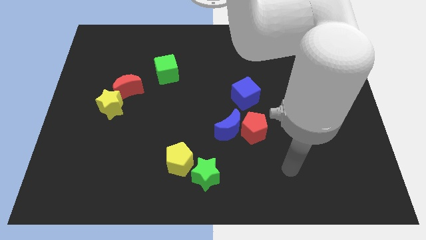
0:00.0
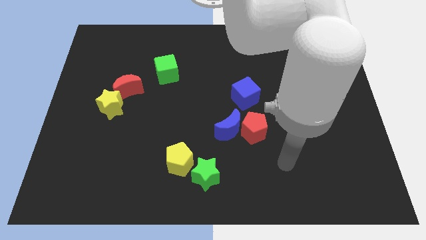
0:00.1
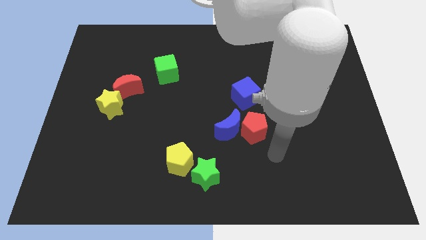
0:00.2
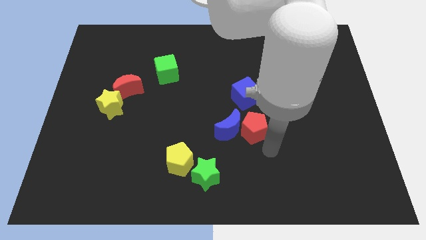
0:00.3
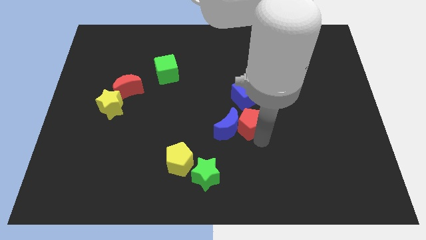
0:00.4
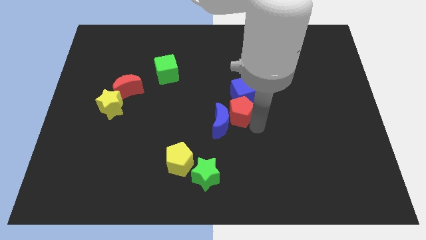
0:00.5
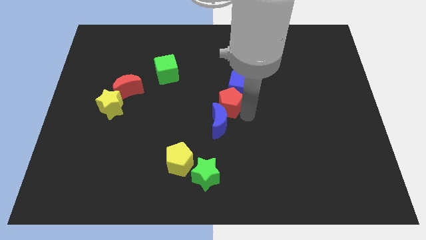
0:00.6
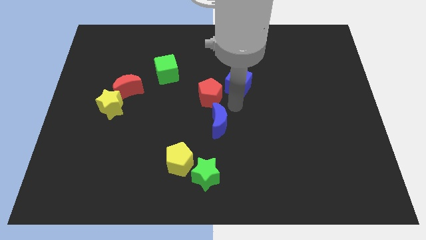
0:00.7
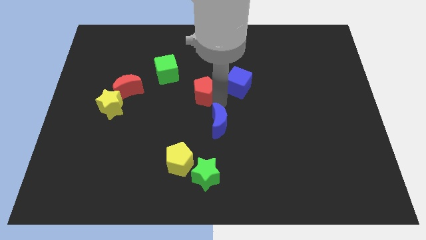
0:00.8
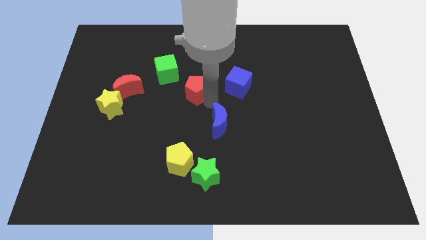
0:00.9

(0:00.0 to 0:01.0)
separate the blue moon from the red pentagon

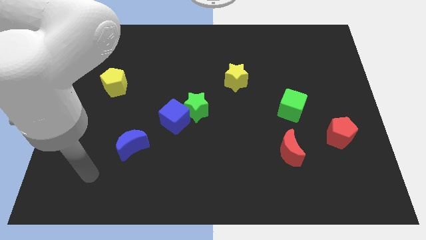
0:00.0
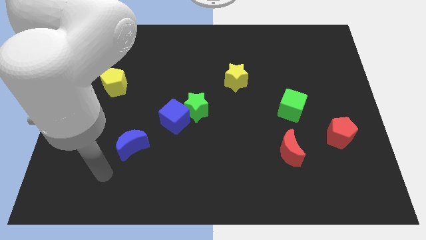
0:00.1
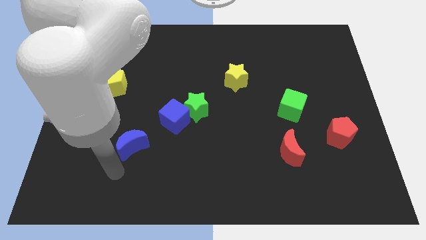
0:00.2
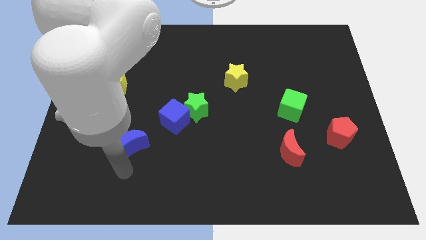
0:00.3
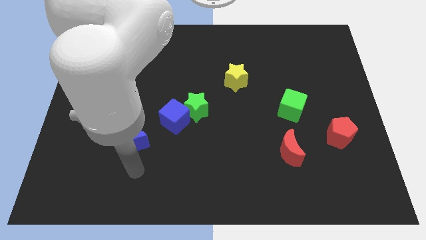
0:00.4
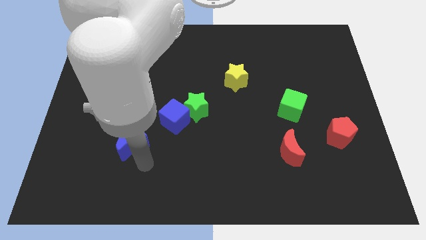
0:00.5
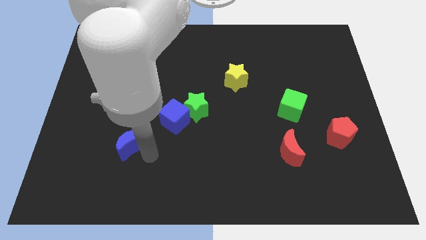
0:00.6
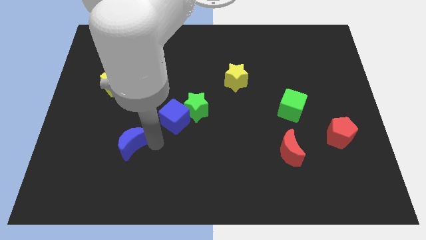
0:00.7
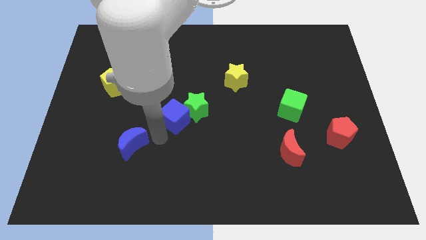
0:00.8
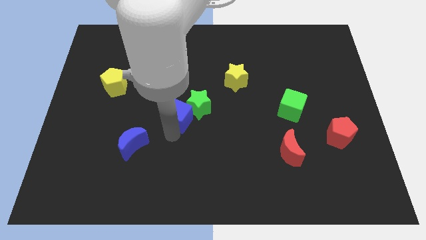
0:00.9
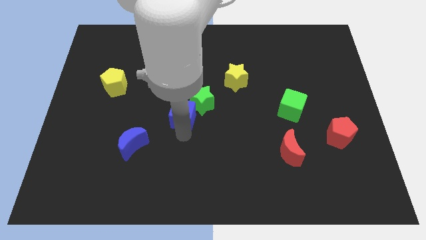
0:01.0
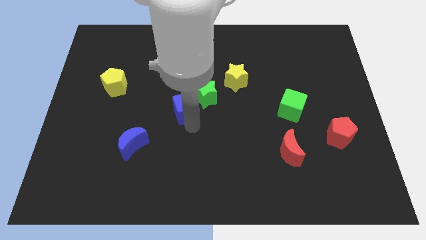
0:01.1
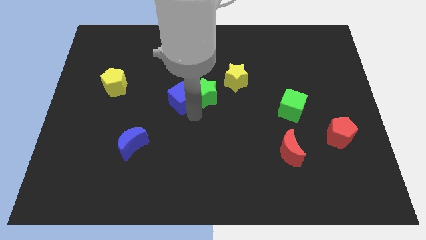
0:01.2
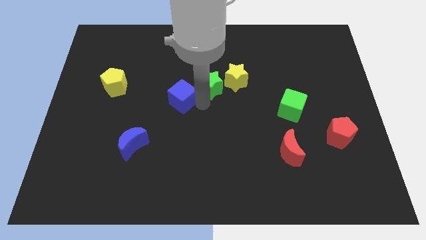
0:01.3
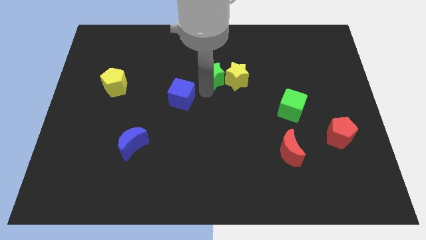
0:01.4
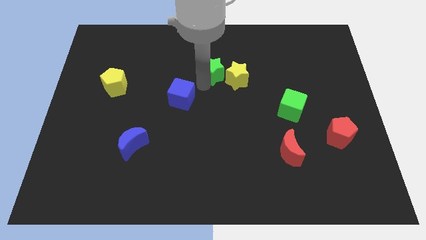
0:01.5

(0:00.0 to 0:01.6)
pull the blue cube apart from the green star

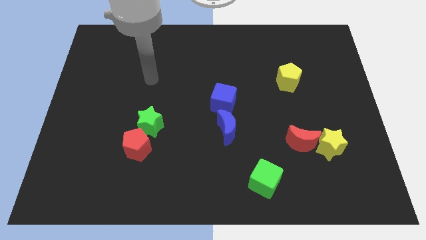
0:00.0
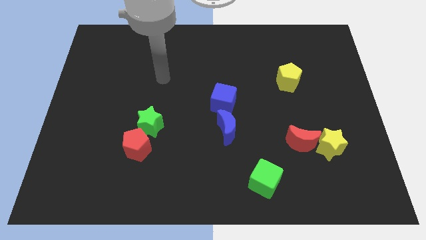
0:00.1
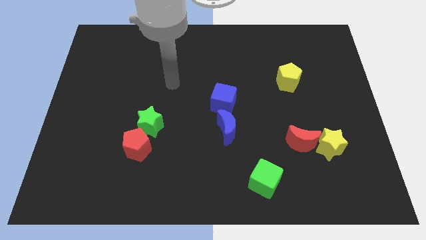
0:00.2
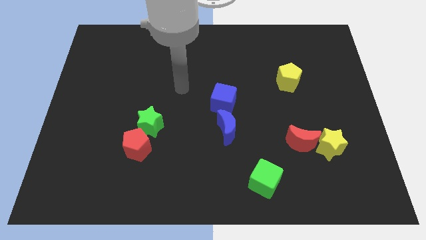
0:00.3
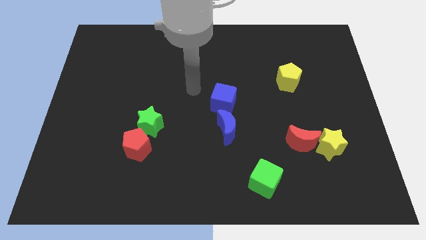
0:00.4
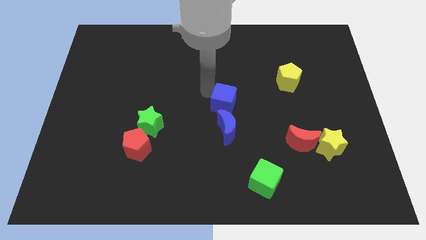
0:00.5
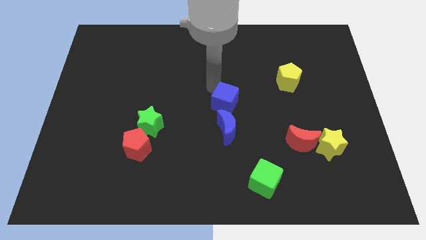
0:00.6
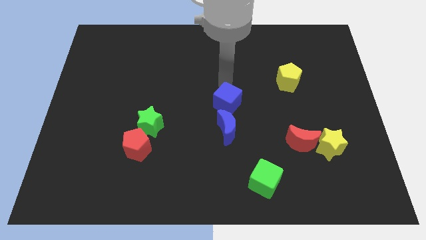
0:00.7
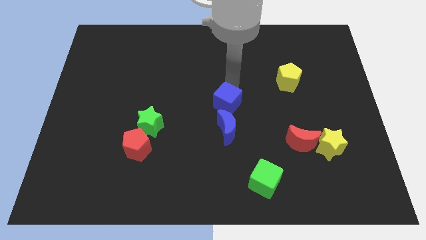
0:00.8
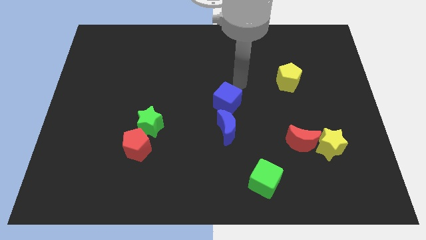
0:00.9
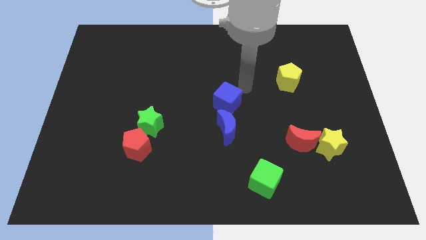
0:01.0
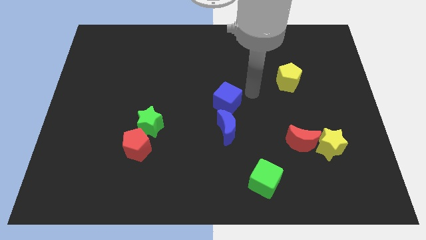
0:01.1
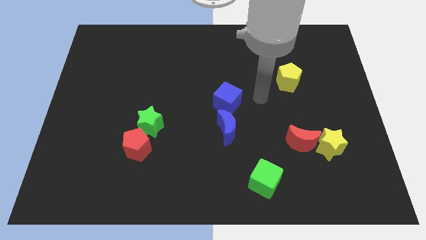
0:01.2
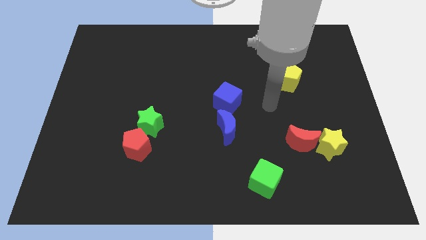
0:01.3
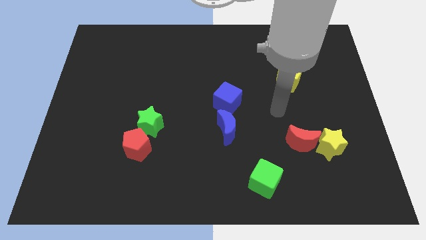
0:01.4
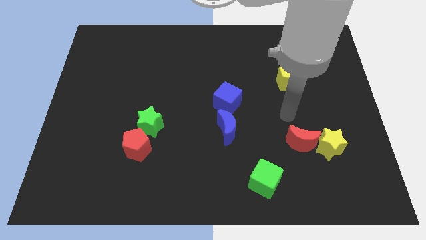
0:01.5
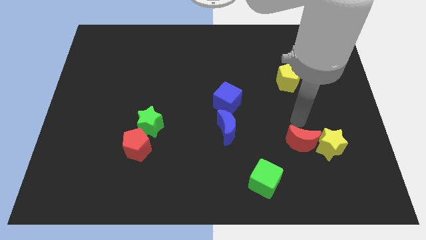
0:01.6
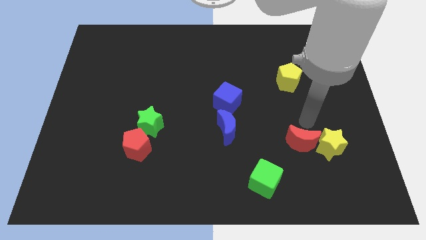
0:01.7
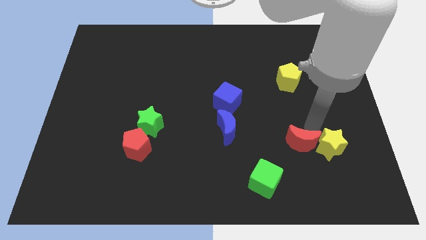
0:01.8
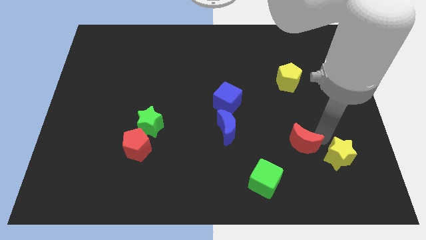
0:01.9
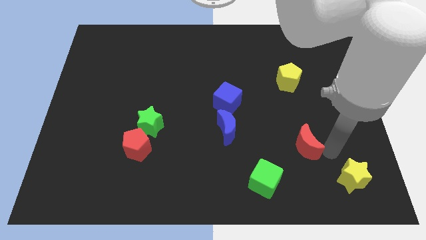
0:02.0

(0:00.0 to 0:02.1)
pull the red moon apart from the yellow star

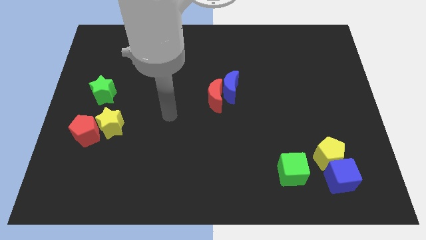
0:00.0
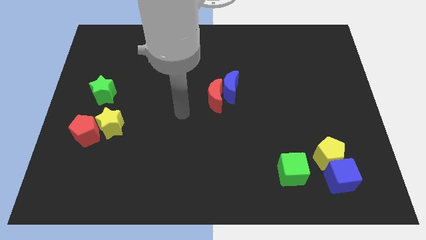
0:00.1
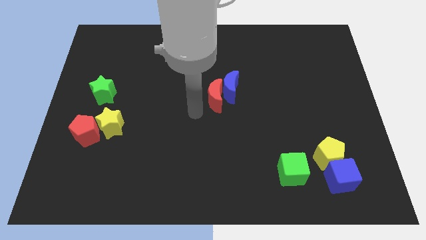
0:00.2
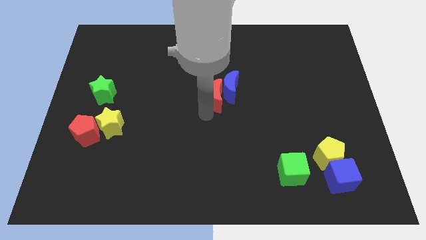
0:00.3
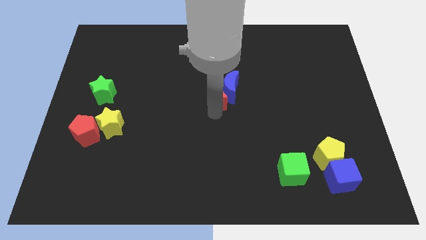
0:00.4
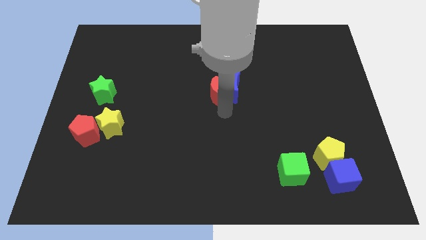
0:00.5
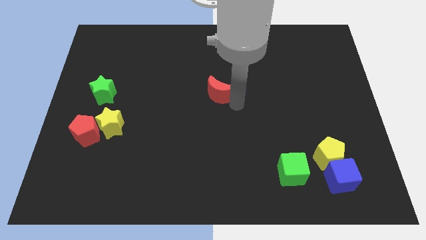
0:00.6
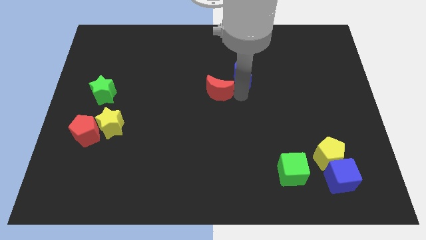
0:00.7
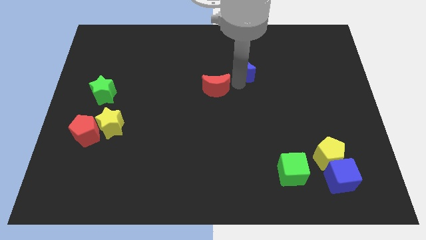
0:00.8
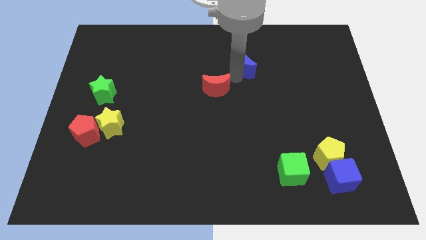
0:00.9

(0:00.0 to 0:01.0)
separate the red moon from the blue moon

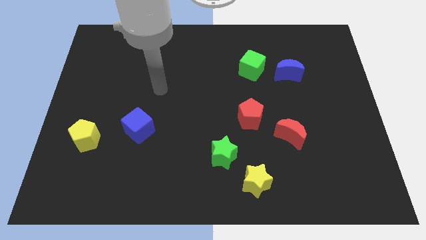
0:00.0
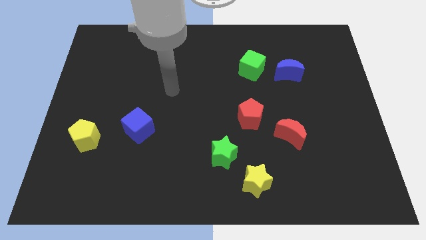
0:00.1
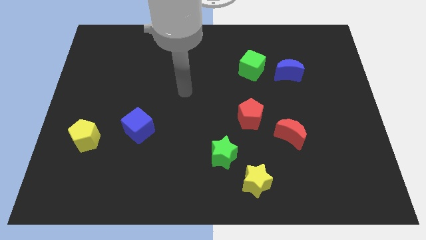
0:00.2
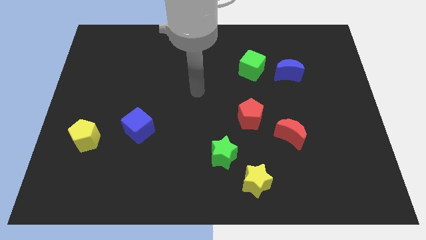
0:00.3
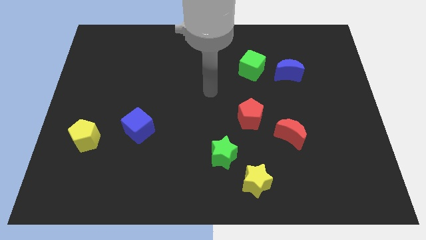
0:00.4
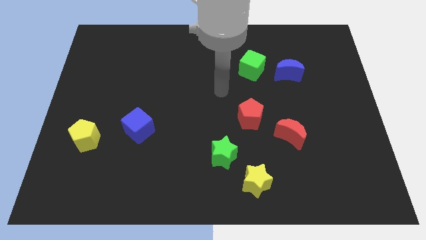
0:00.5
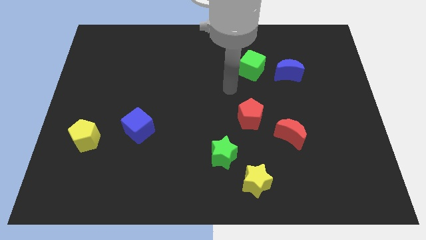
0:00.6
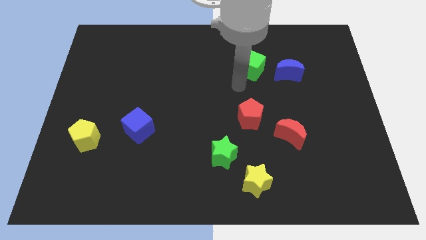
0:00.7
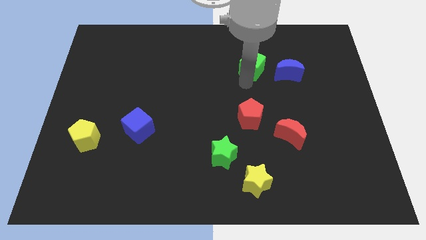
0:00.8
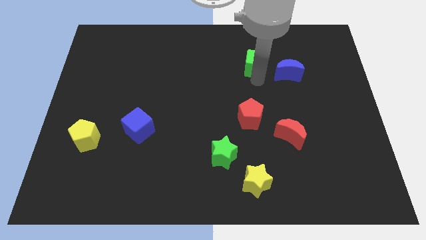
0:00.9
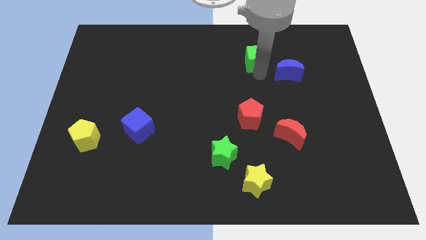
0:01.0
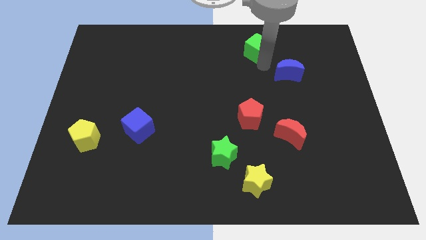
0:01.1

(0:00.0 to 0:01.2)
pull the blue moon apart from the green cube

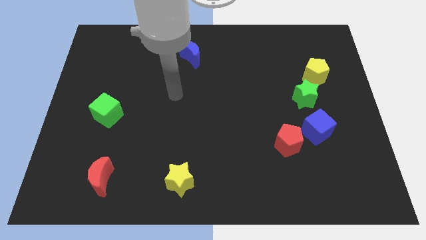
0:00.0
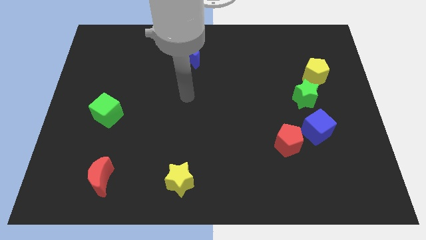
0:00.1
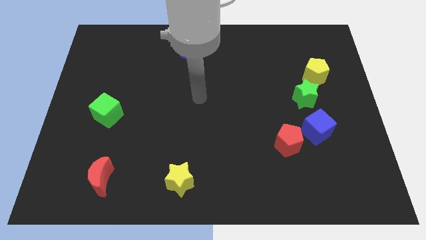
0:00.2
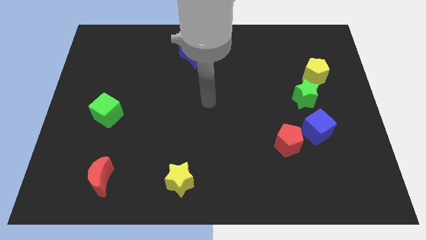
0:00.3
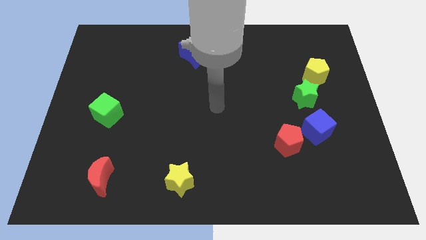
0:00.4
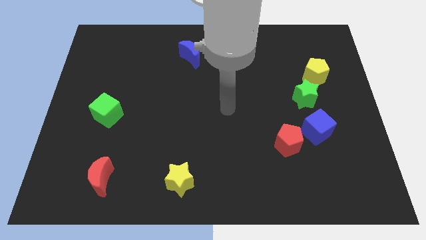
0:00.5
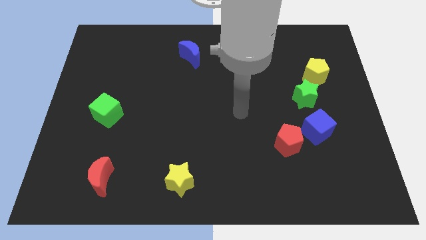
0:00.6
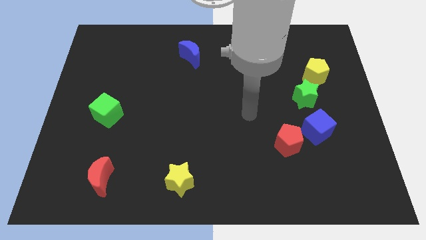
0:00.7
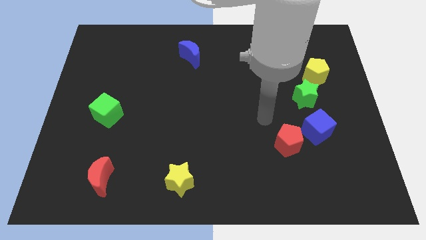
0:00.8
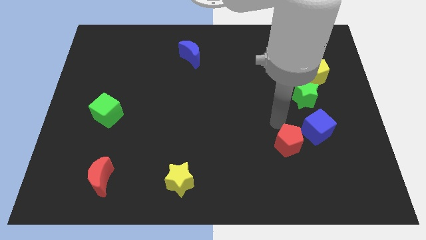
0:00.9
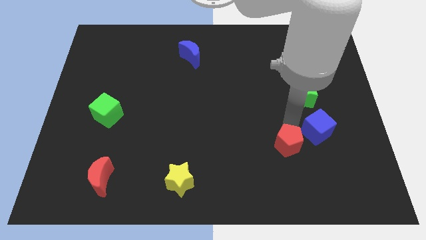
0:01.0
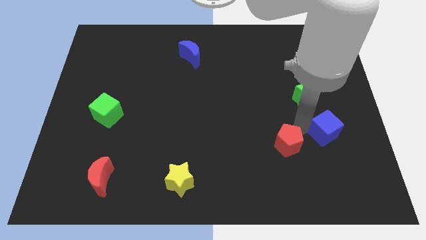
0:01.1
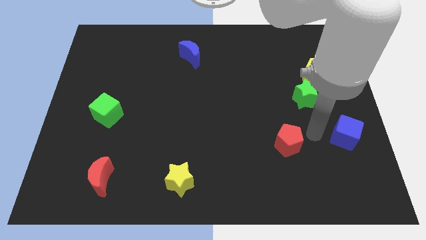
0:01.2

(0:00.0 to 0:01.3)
separate the red pentagon from the blue cube

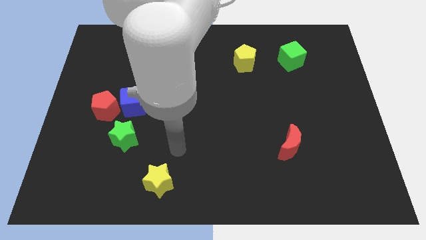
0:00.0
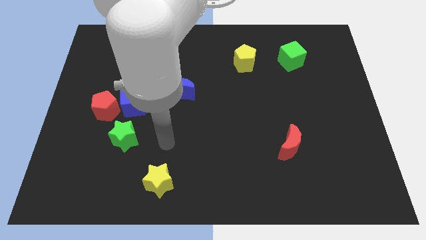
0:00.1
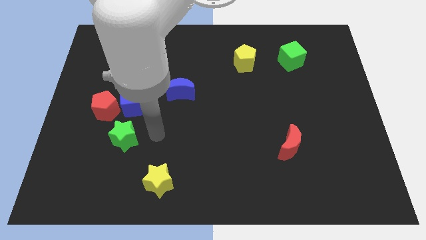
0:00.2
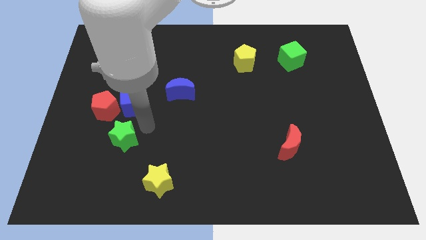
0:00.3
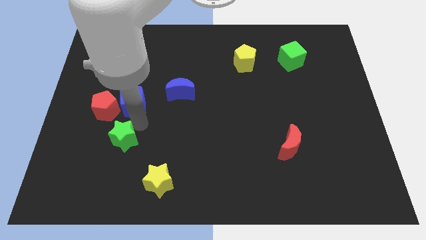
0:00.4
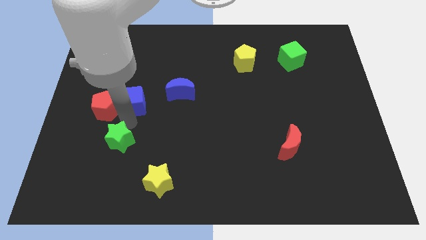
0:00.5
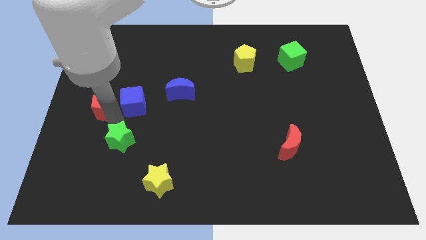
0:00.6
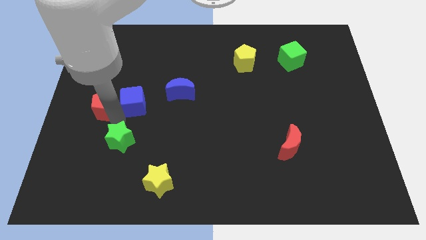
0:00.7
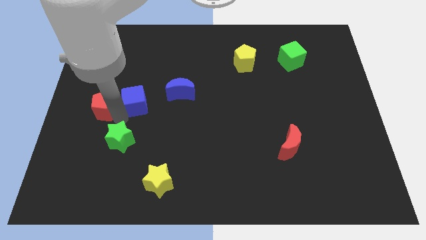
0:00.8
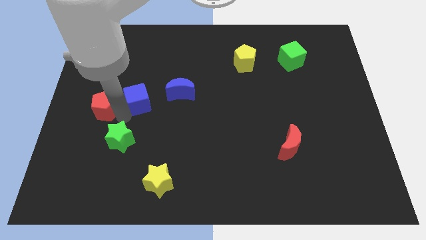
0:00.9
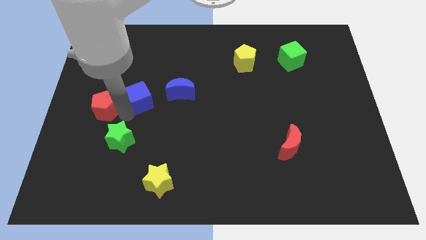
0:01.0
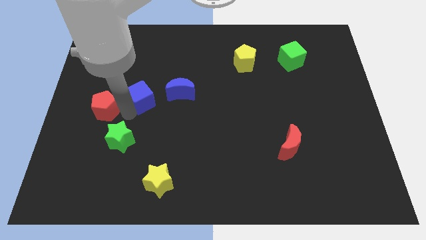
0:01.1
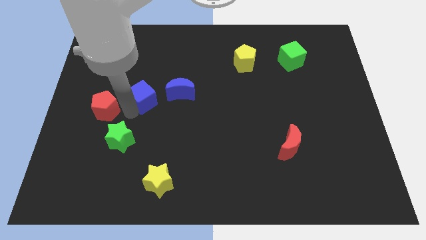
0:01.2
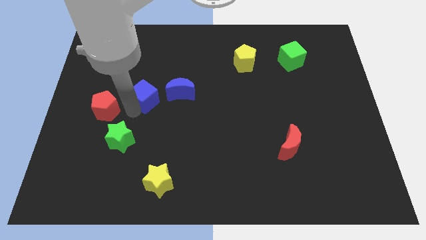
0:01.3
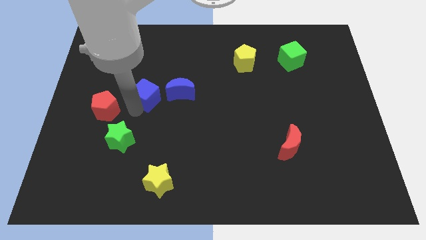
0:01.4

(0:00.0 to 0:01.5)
separate the blue cube from the red pentagon and green star
